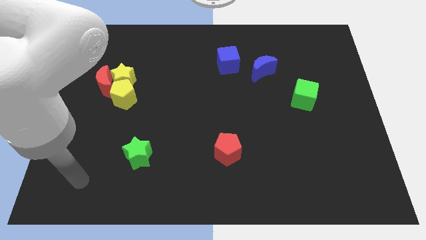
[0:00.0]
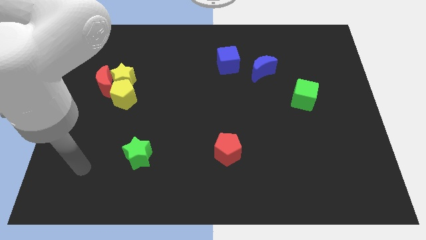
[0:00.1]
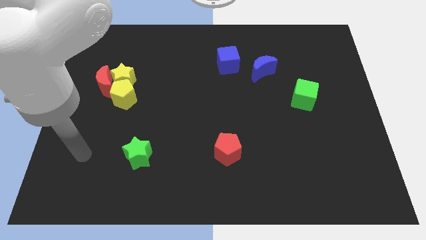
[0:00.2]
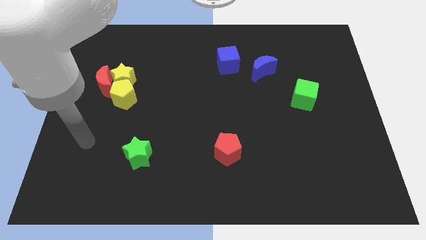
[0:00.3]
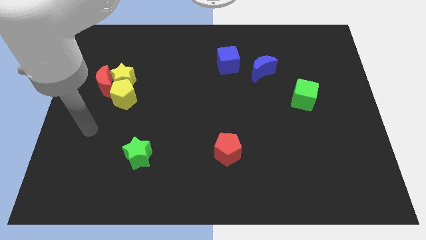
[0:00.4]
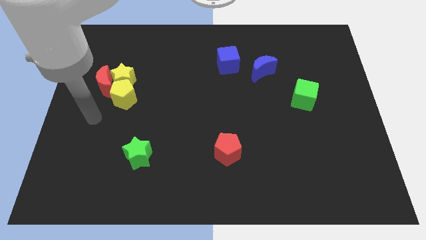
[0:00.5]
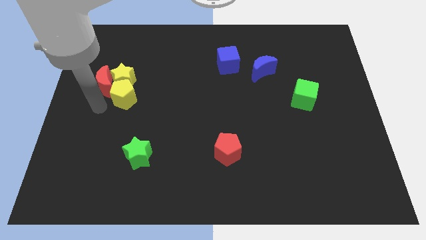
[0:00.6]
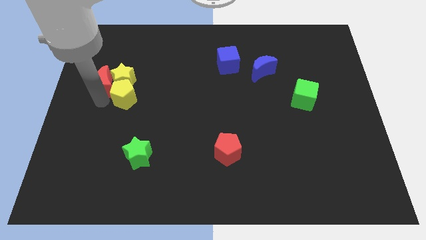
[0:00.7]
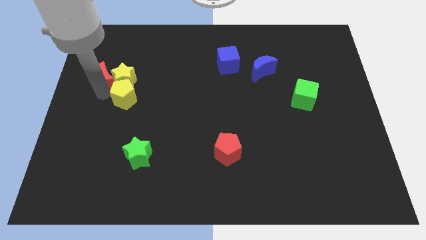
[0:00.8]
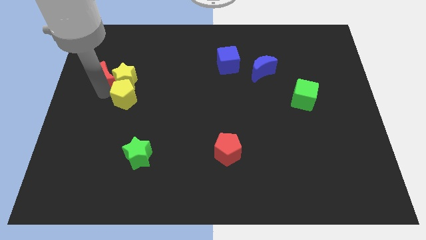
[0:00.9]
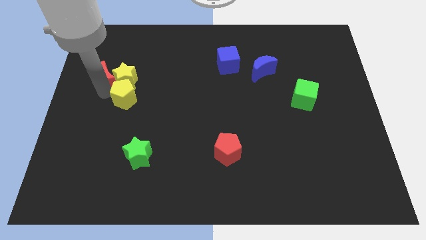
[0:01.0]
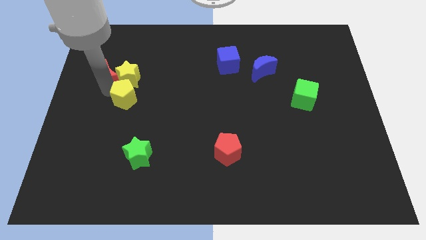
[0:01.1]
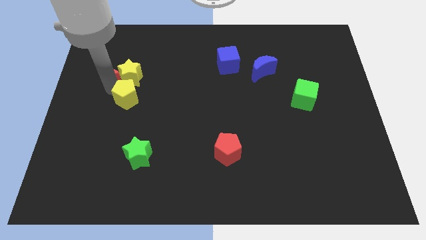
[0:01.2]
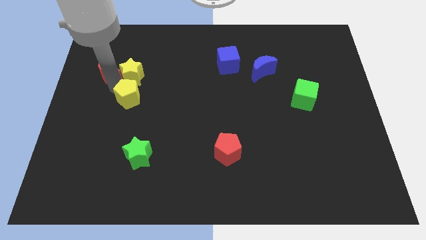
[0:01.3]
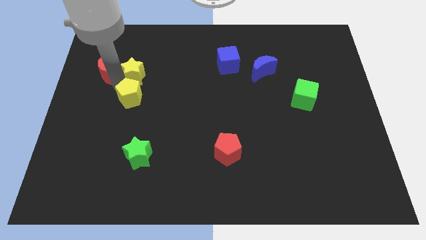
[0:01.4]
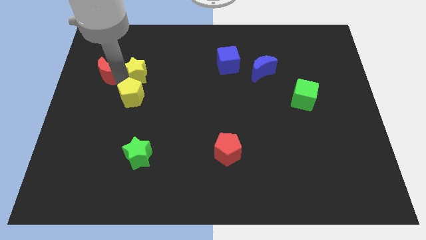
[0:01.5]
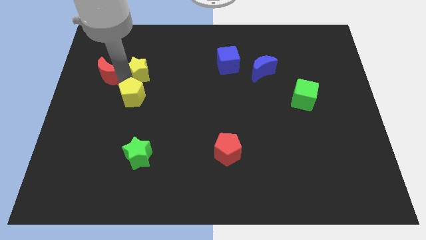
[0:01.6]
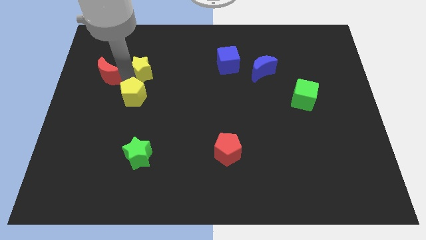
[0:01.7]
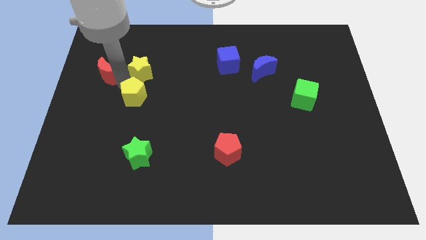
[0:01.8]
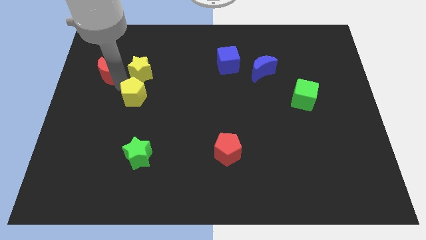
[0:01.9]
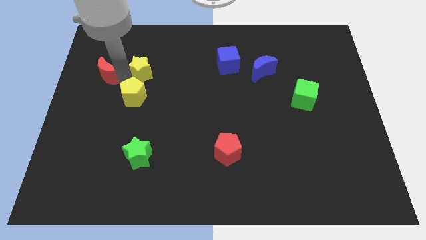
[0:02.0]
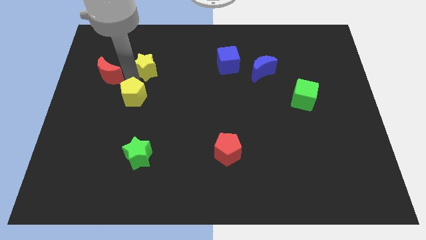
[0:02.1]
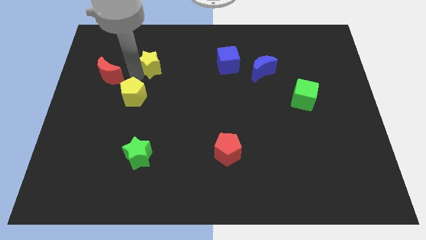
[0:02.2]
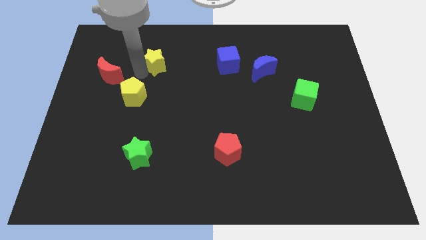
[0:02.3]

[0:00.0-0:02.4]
pull the yellow star apart from the red moon and yellow pentagon

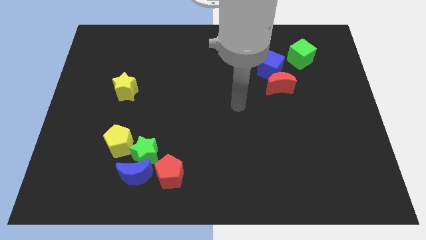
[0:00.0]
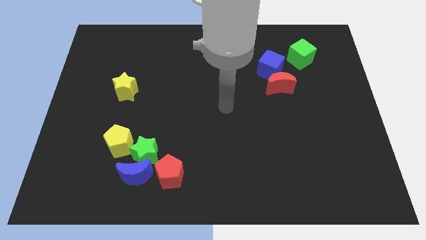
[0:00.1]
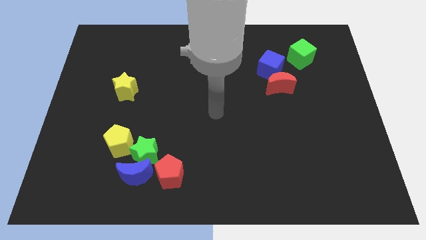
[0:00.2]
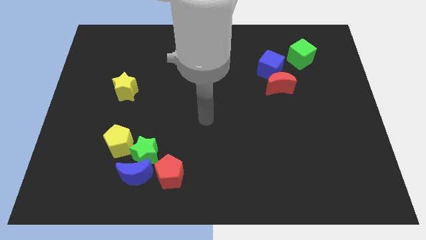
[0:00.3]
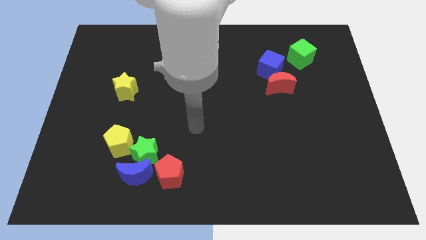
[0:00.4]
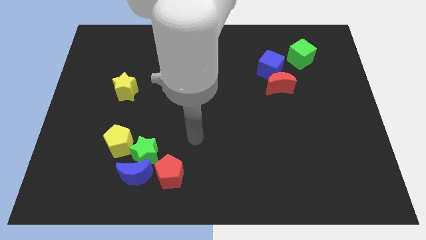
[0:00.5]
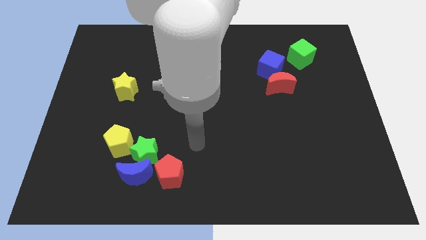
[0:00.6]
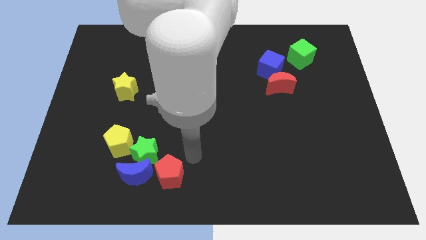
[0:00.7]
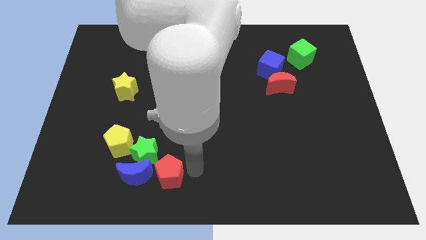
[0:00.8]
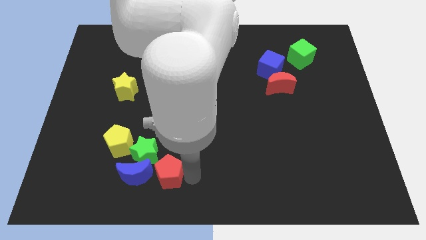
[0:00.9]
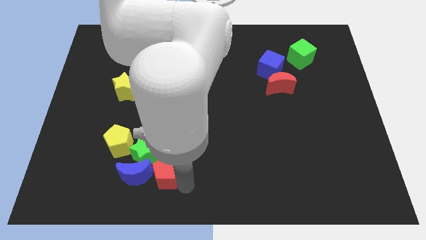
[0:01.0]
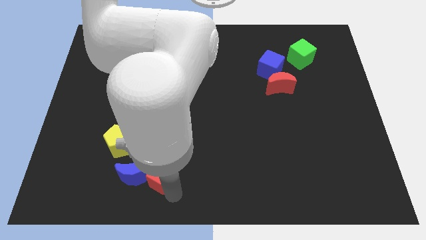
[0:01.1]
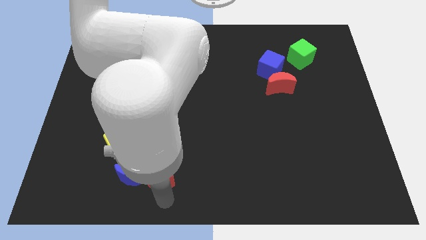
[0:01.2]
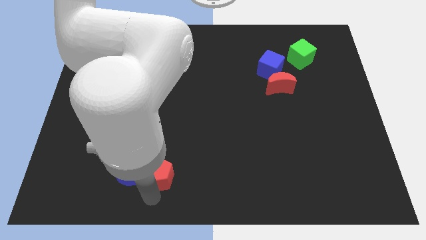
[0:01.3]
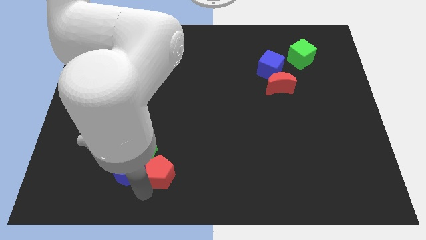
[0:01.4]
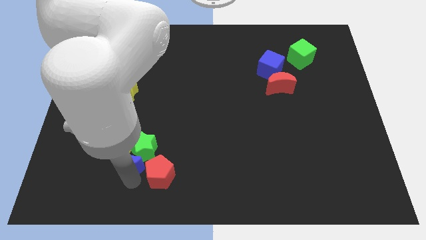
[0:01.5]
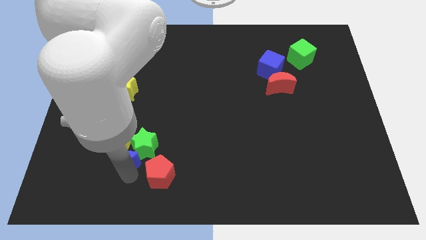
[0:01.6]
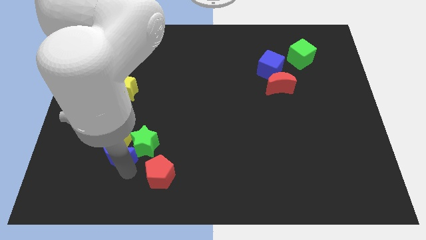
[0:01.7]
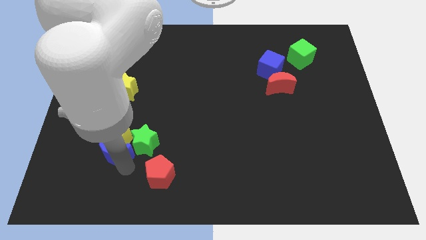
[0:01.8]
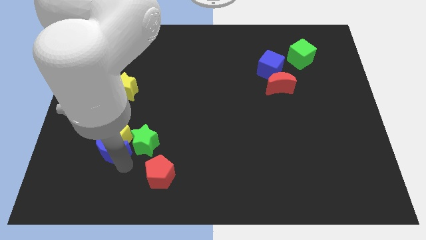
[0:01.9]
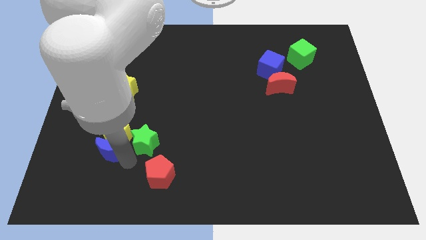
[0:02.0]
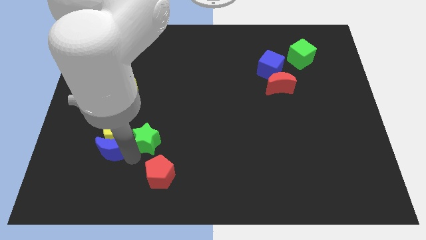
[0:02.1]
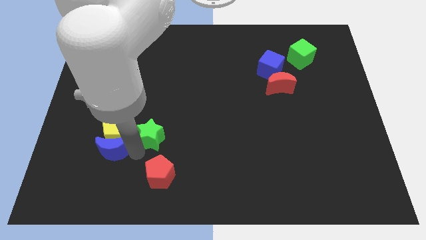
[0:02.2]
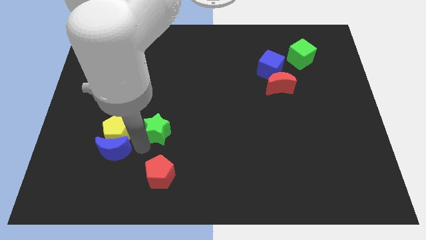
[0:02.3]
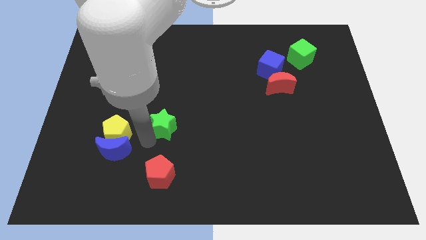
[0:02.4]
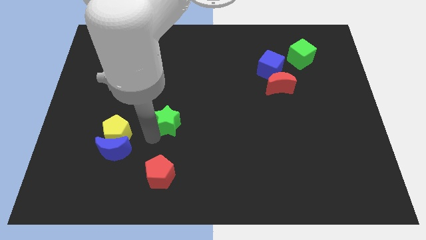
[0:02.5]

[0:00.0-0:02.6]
pull the green star apart from the group of blocks

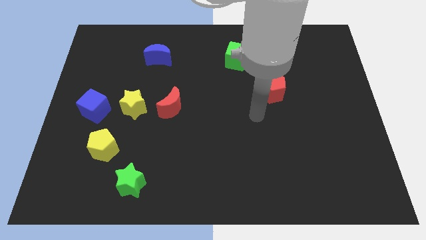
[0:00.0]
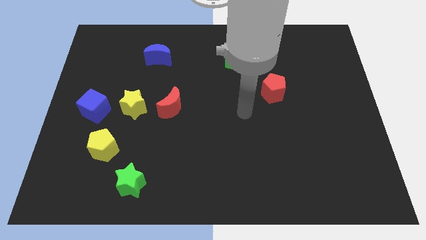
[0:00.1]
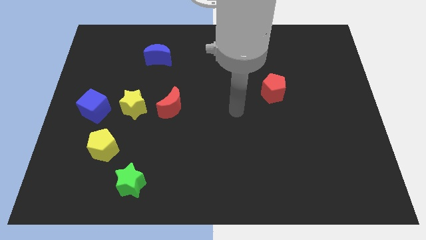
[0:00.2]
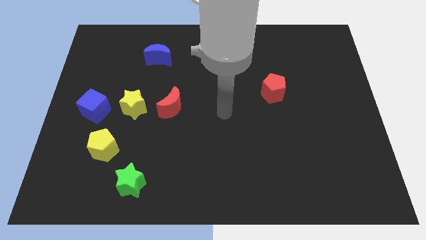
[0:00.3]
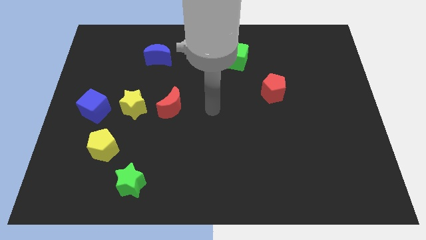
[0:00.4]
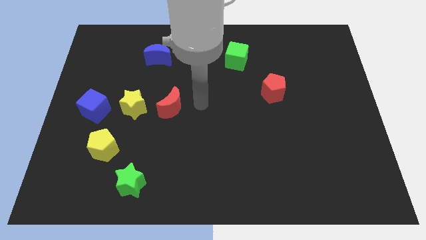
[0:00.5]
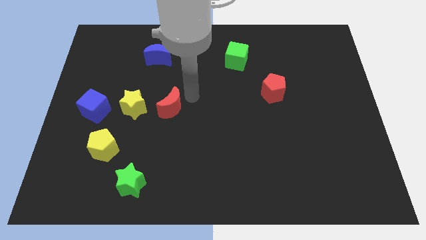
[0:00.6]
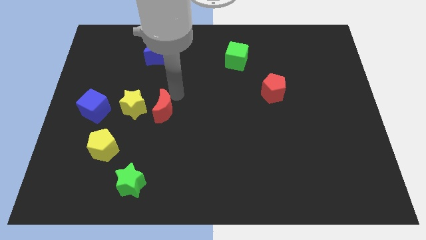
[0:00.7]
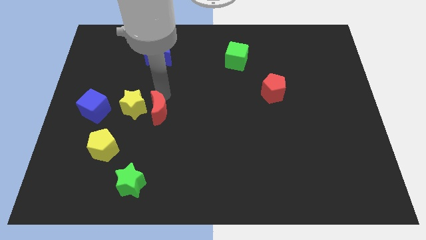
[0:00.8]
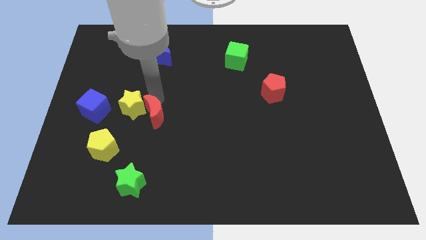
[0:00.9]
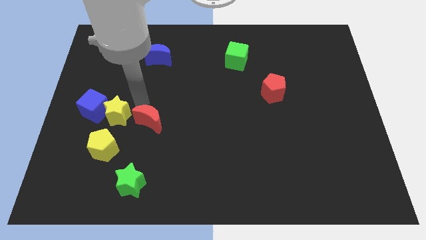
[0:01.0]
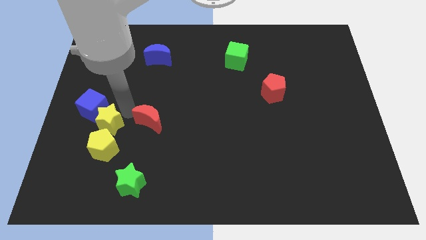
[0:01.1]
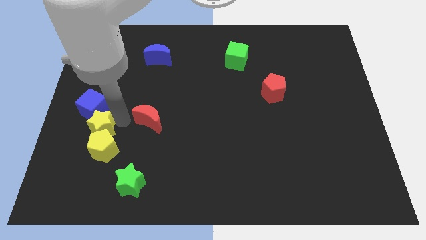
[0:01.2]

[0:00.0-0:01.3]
pull the red moon apart from the yellow star

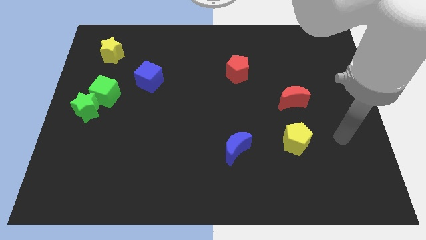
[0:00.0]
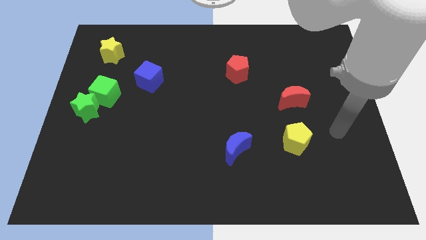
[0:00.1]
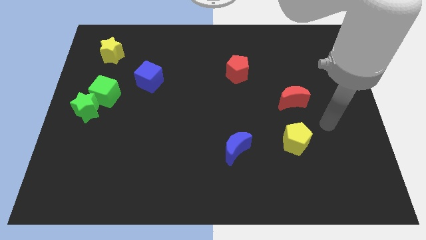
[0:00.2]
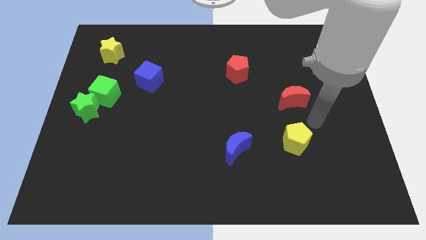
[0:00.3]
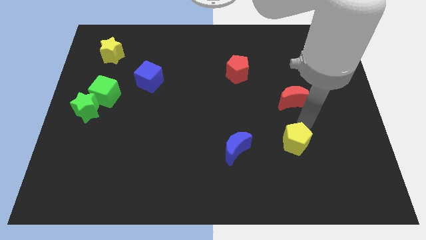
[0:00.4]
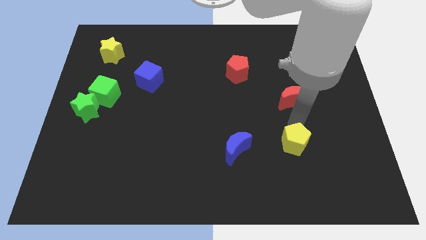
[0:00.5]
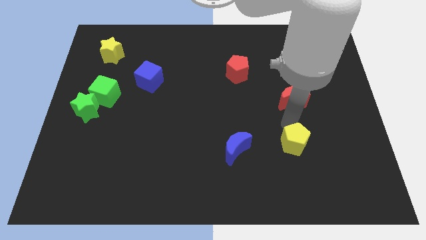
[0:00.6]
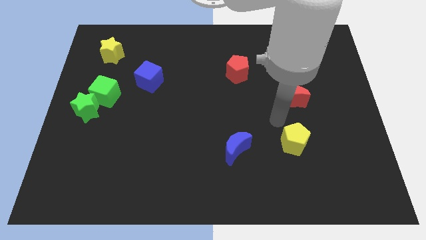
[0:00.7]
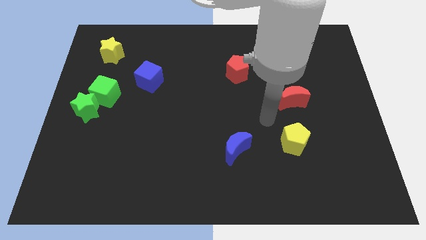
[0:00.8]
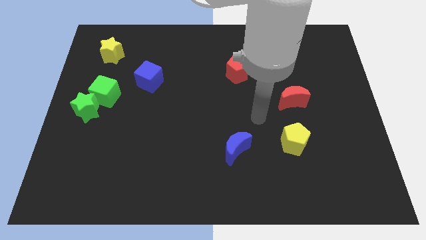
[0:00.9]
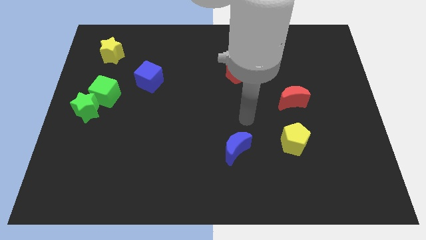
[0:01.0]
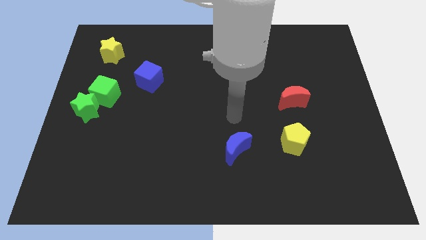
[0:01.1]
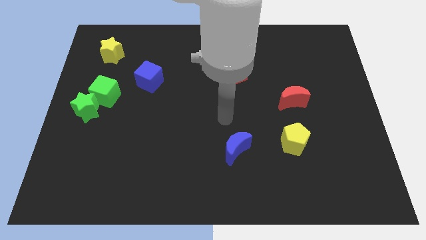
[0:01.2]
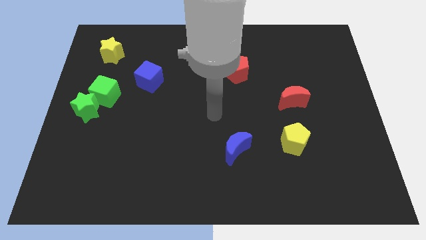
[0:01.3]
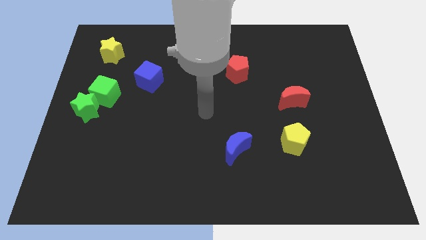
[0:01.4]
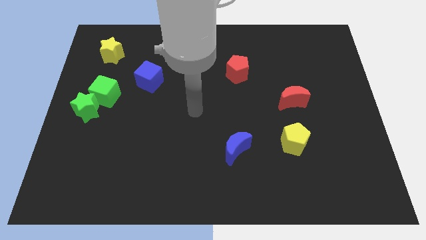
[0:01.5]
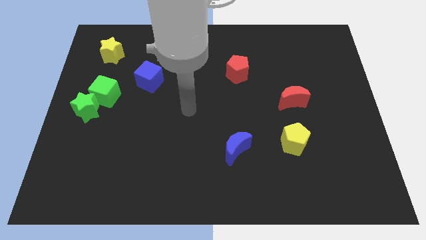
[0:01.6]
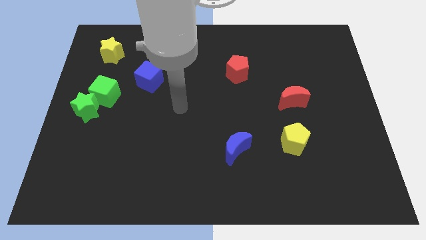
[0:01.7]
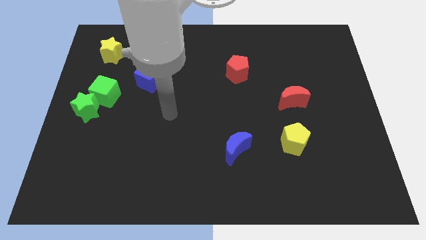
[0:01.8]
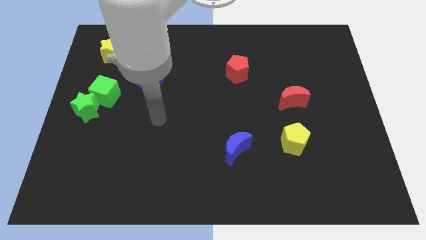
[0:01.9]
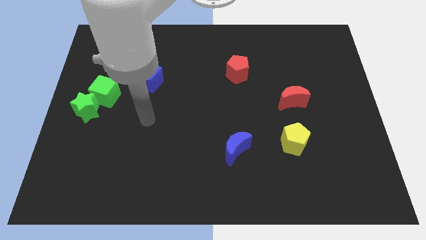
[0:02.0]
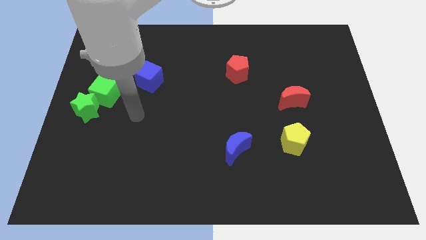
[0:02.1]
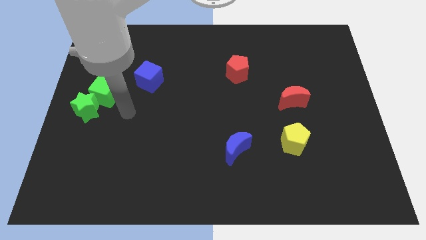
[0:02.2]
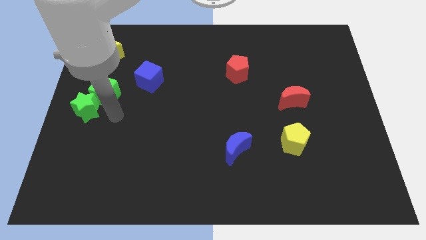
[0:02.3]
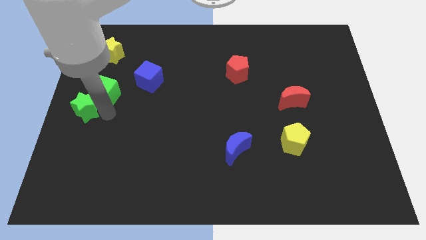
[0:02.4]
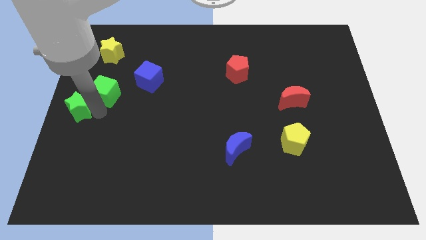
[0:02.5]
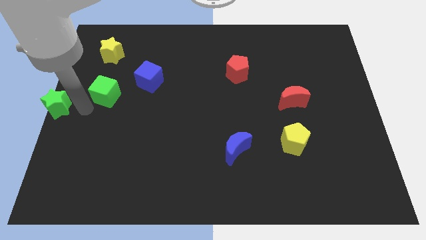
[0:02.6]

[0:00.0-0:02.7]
separate the green cube from the green star

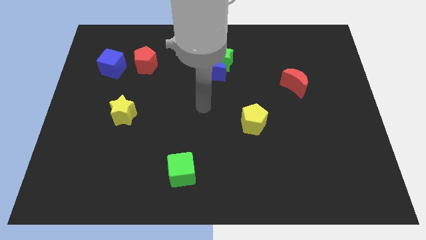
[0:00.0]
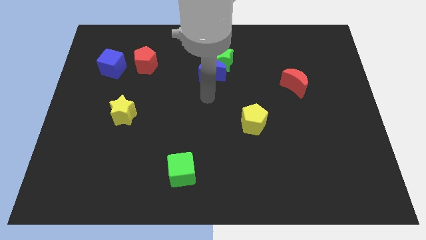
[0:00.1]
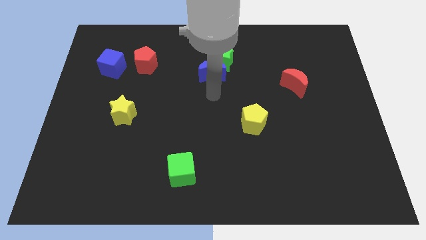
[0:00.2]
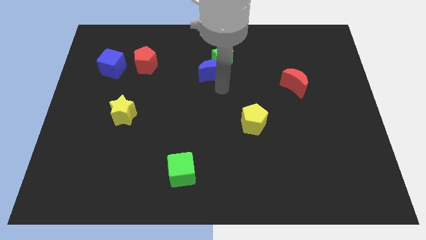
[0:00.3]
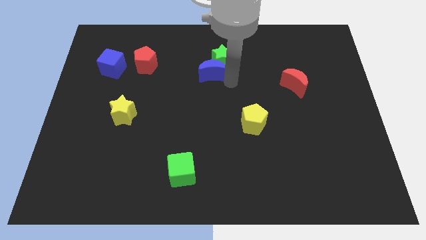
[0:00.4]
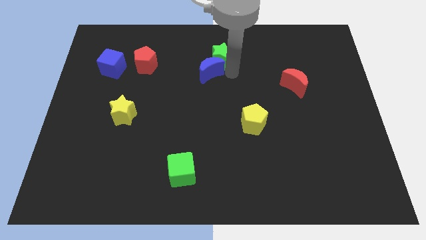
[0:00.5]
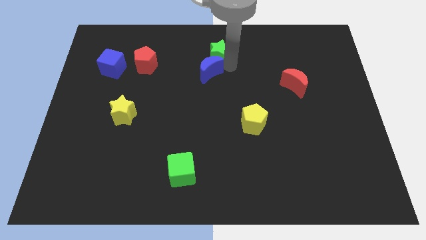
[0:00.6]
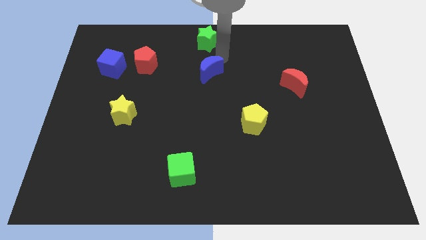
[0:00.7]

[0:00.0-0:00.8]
separate the blue moon from the green star
